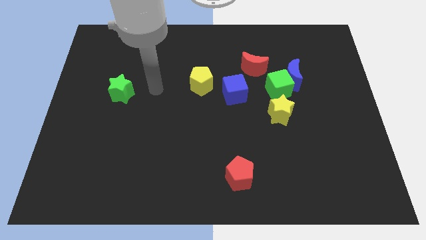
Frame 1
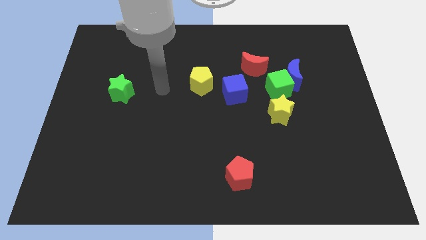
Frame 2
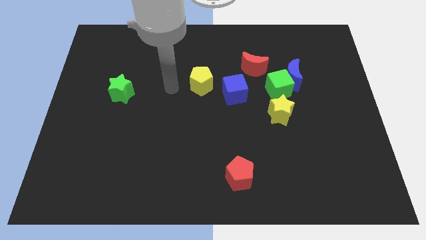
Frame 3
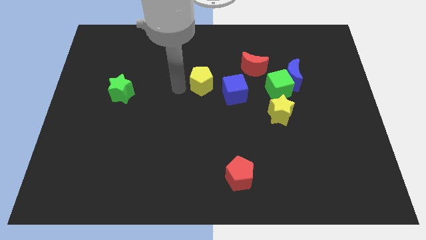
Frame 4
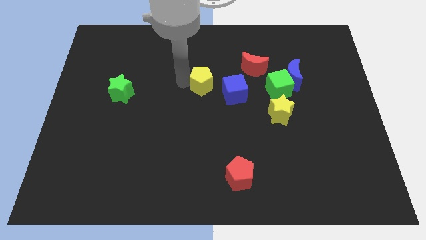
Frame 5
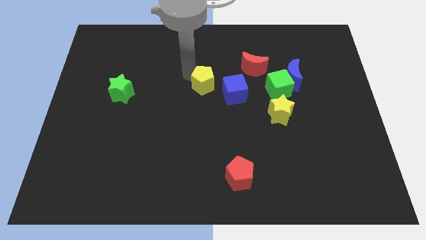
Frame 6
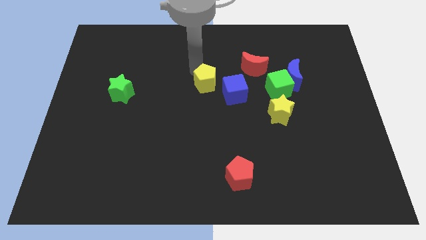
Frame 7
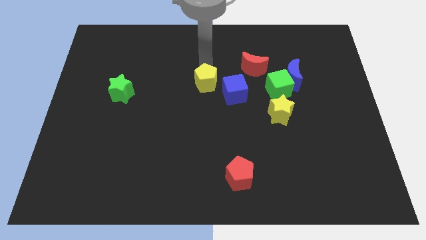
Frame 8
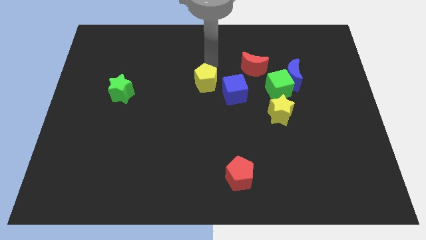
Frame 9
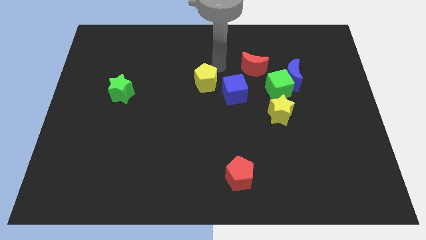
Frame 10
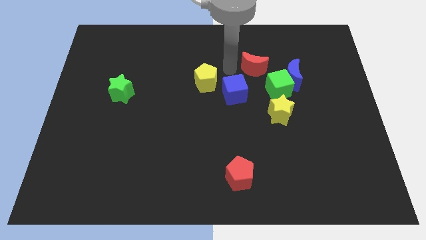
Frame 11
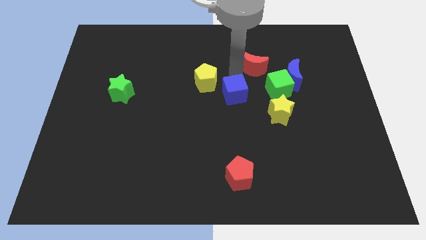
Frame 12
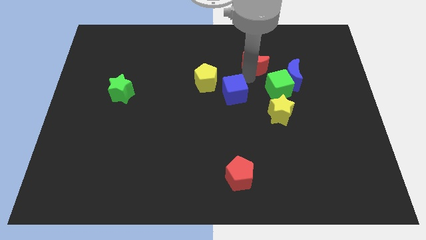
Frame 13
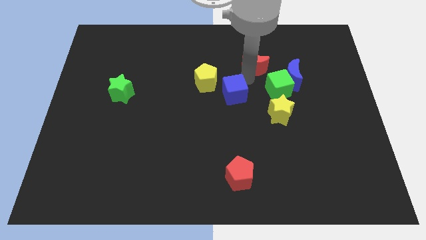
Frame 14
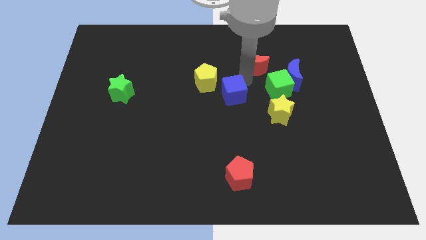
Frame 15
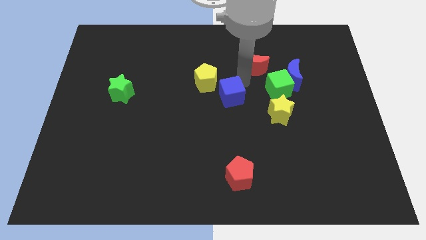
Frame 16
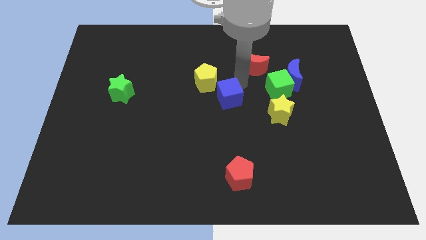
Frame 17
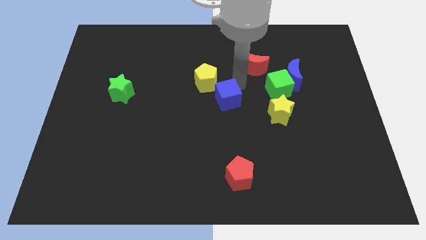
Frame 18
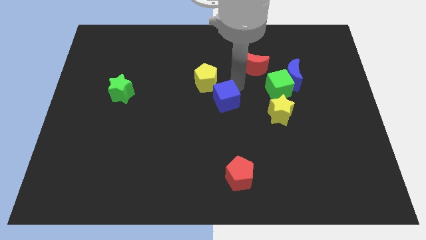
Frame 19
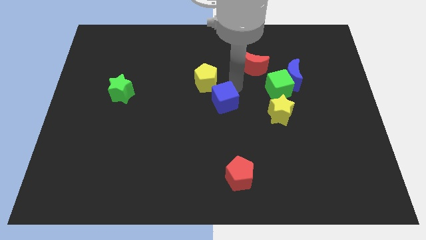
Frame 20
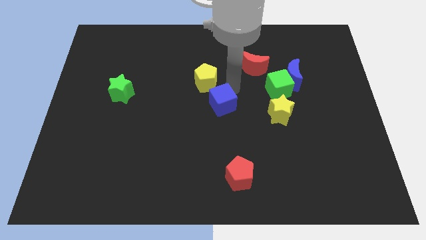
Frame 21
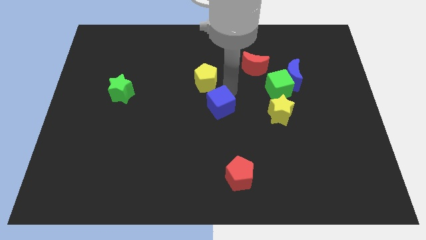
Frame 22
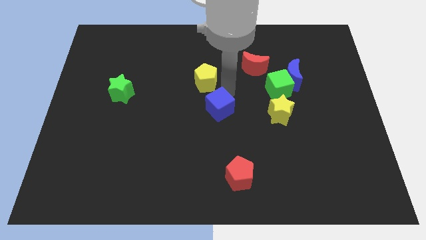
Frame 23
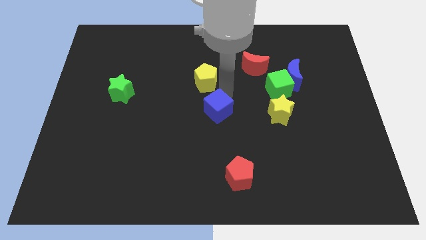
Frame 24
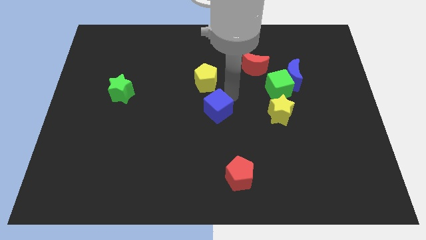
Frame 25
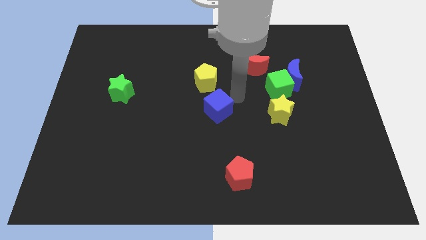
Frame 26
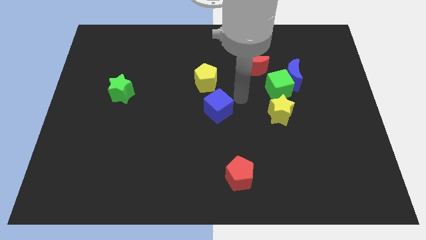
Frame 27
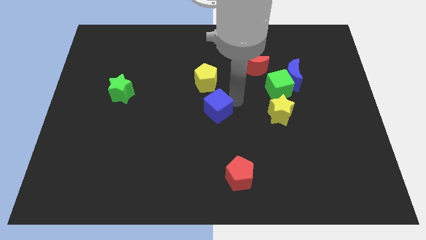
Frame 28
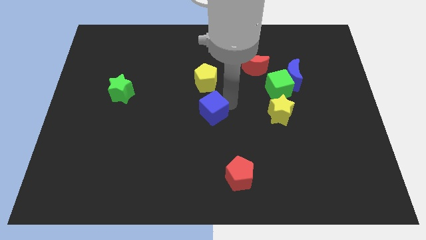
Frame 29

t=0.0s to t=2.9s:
move the blue cube down and left diagonally somewhat

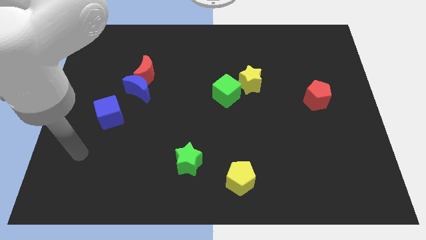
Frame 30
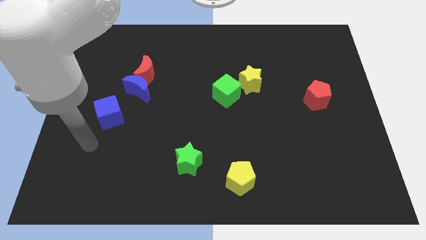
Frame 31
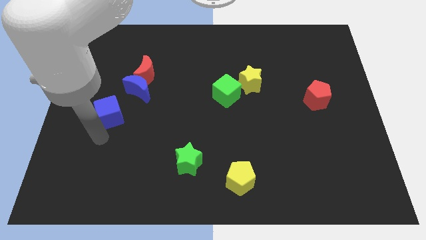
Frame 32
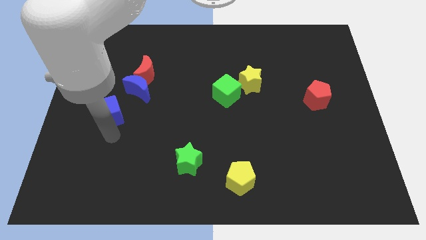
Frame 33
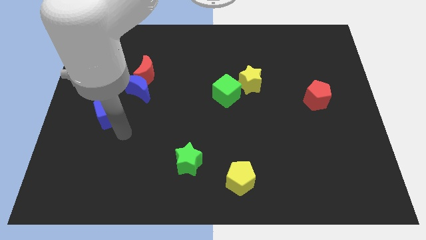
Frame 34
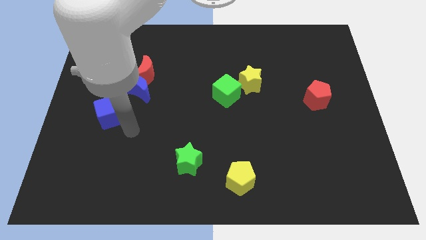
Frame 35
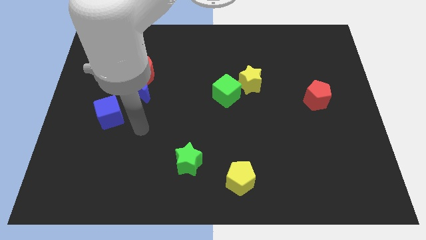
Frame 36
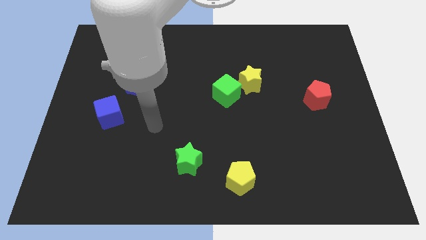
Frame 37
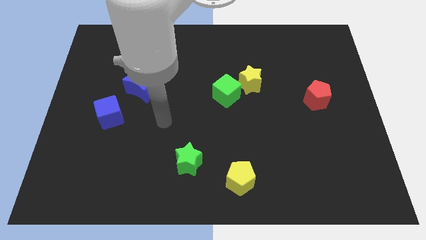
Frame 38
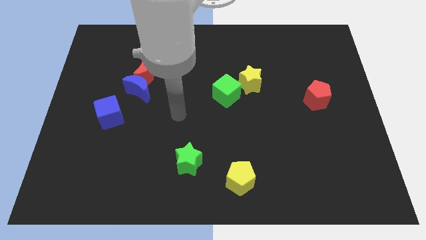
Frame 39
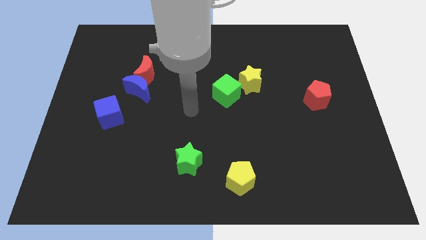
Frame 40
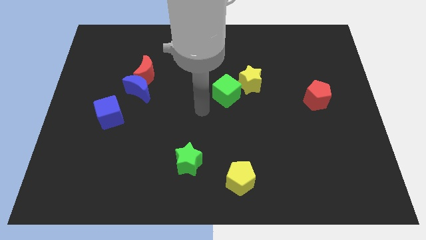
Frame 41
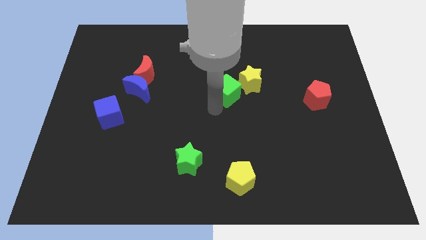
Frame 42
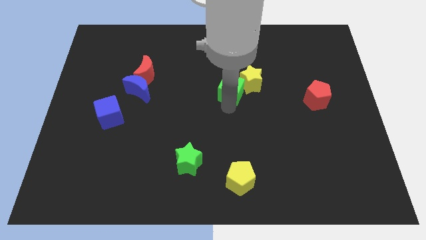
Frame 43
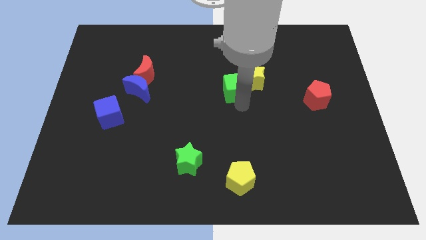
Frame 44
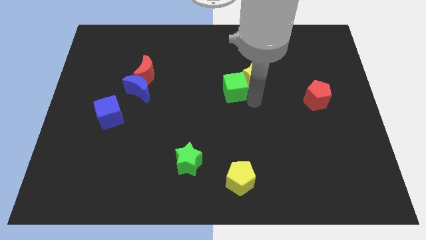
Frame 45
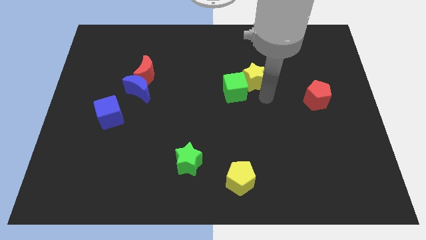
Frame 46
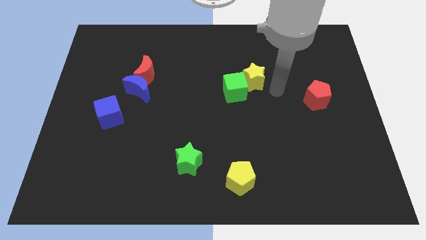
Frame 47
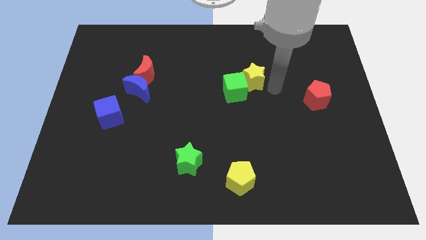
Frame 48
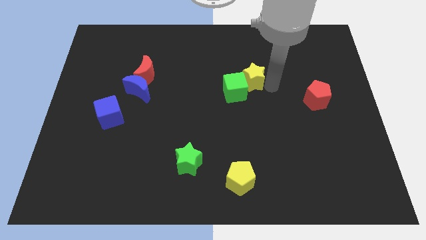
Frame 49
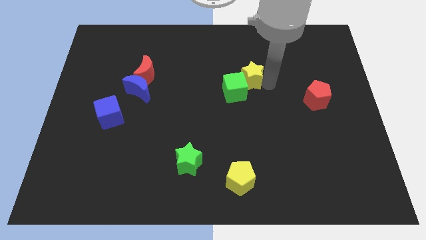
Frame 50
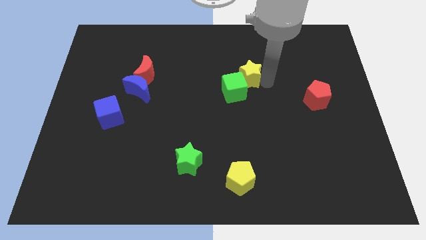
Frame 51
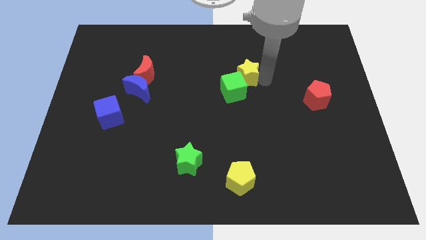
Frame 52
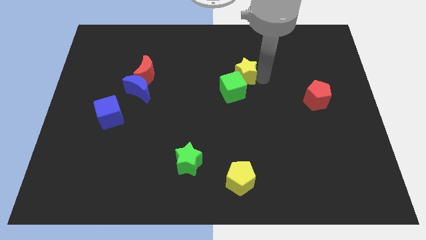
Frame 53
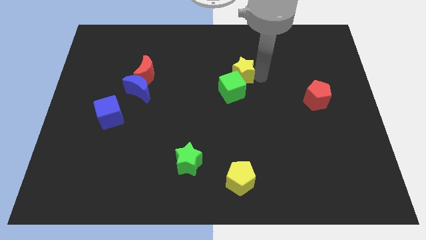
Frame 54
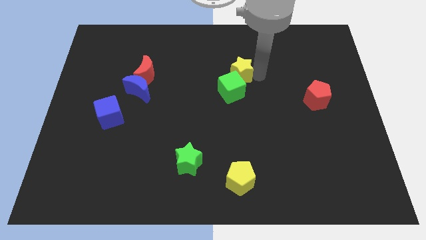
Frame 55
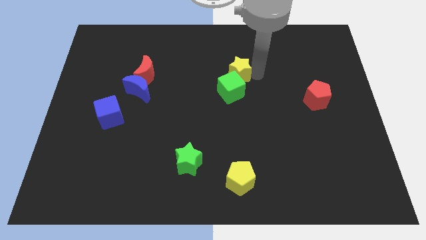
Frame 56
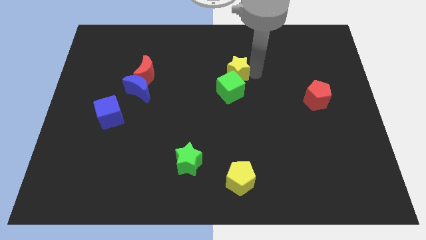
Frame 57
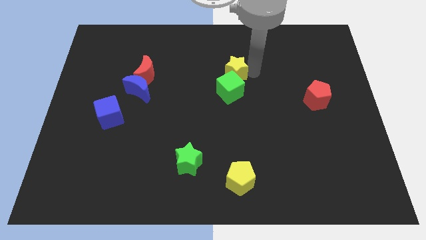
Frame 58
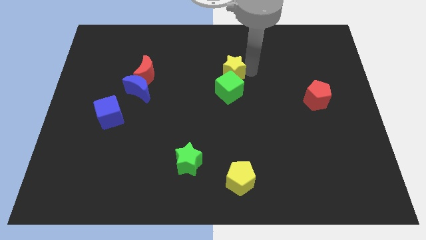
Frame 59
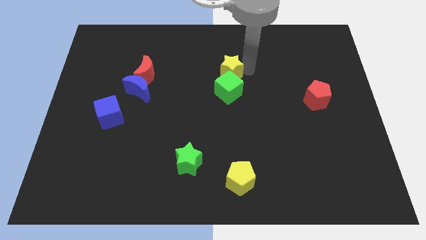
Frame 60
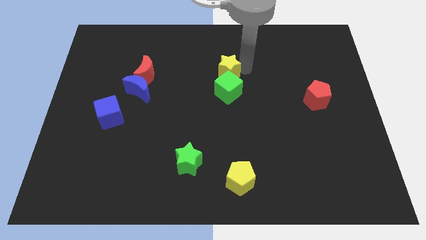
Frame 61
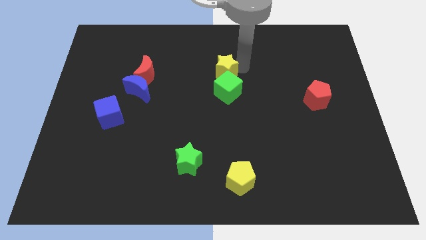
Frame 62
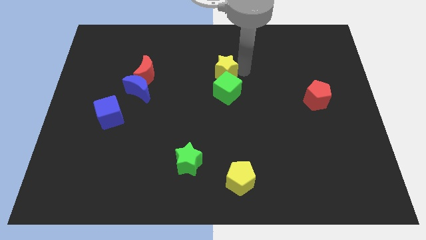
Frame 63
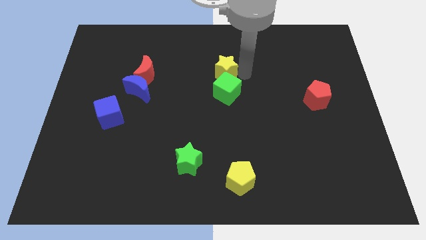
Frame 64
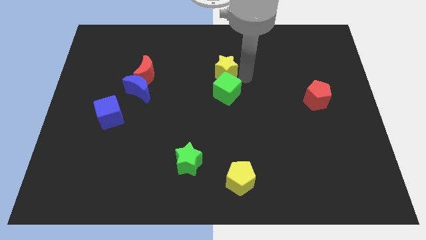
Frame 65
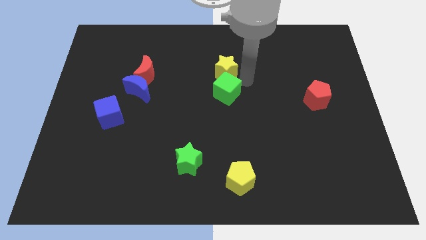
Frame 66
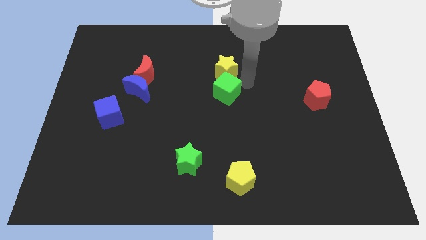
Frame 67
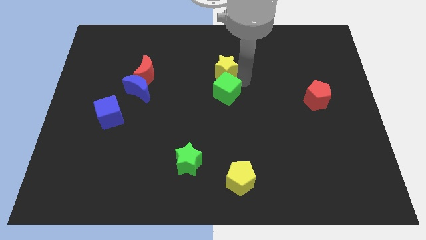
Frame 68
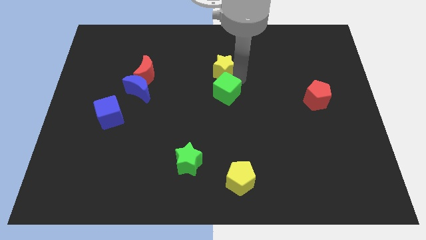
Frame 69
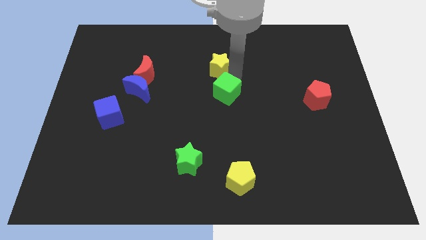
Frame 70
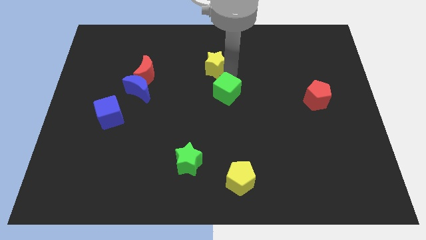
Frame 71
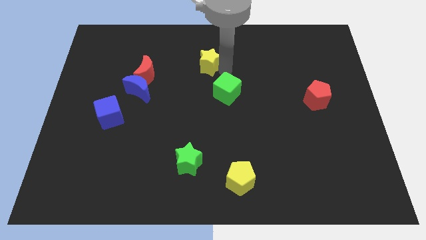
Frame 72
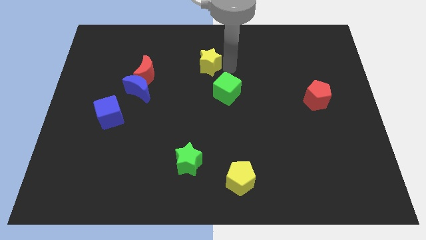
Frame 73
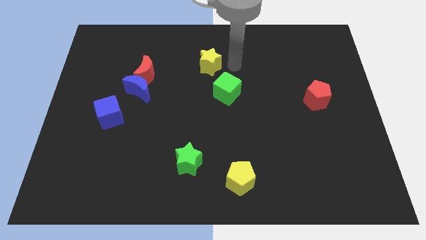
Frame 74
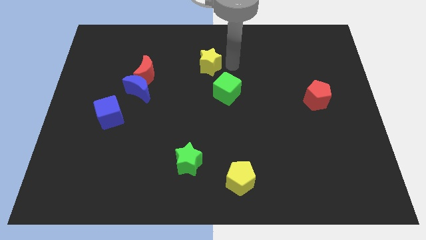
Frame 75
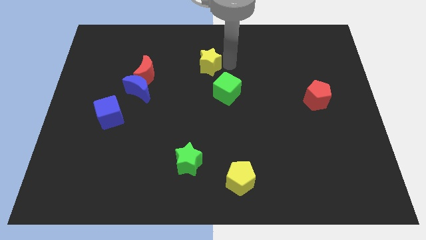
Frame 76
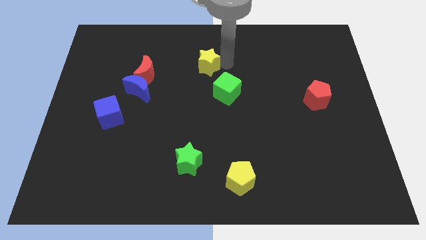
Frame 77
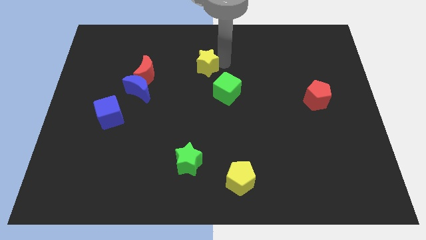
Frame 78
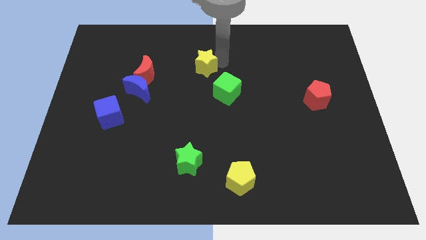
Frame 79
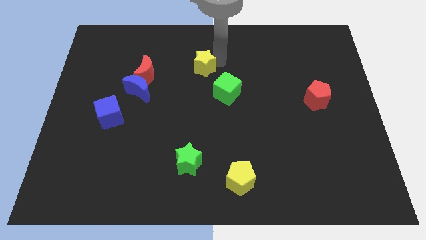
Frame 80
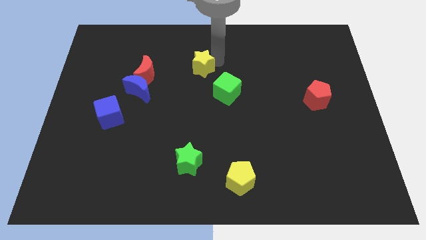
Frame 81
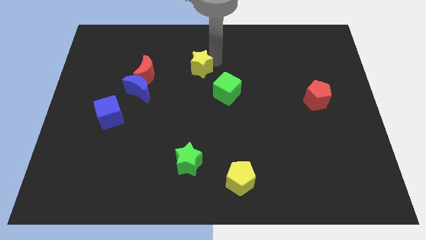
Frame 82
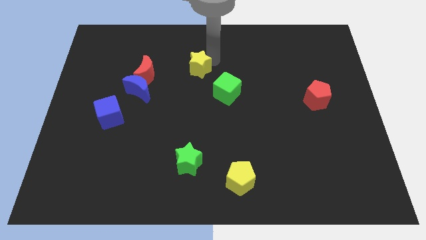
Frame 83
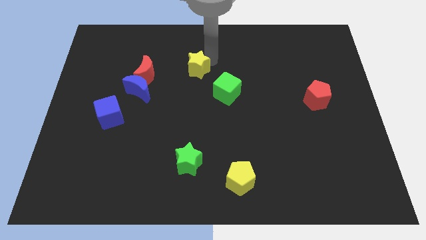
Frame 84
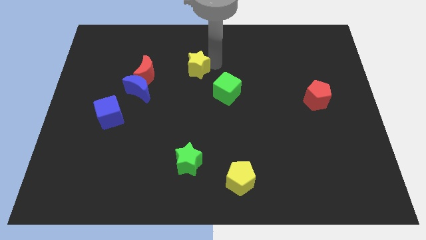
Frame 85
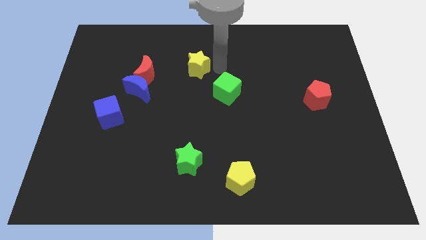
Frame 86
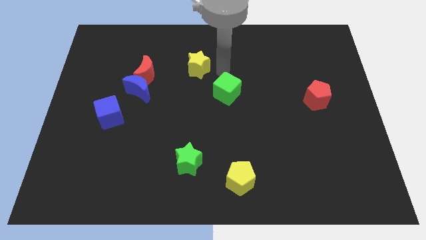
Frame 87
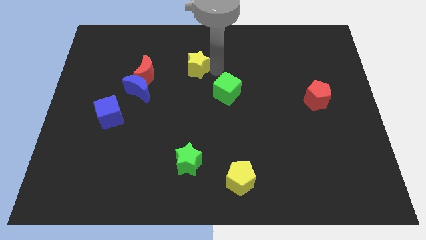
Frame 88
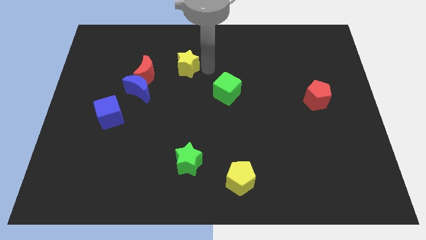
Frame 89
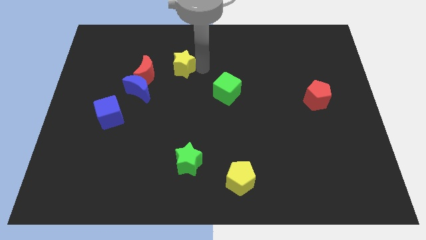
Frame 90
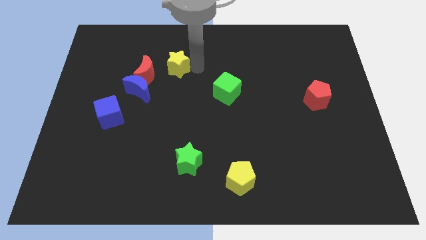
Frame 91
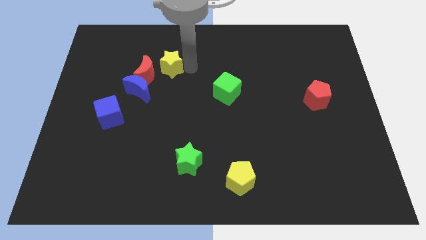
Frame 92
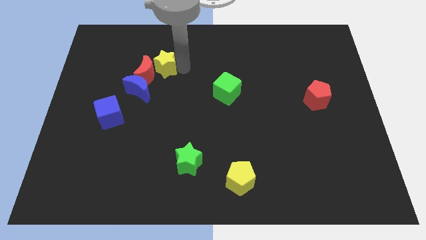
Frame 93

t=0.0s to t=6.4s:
slide the yellow star left
